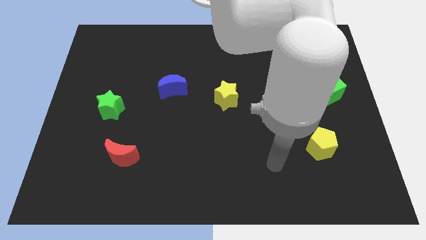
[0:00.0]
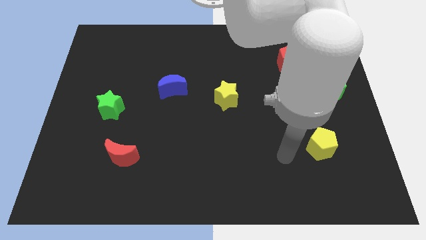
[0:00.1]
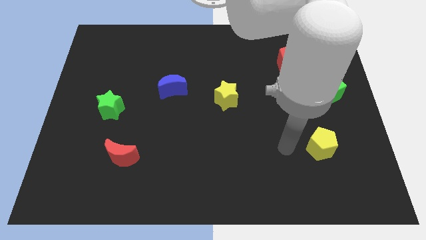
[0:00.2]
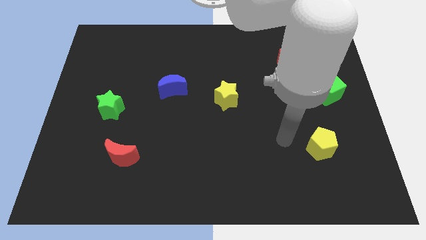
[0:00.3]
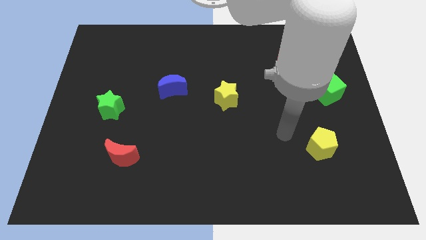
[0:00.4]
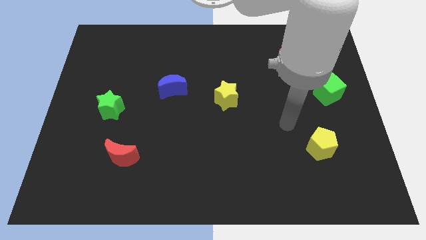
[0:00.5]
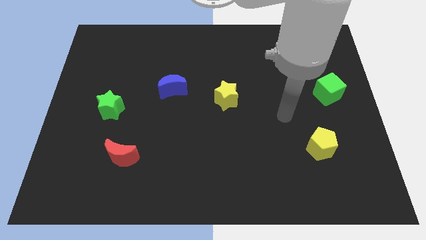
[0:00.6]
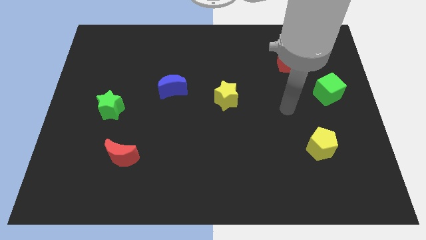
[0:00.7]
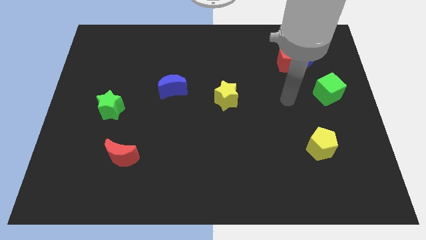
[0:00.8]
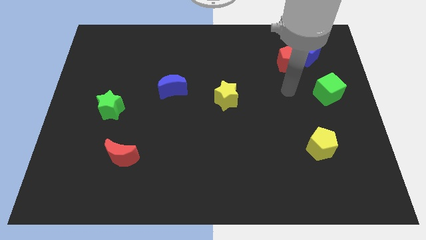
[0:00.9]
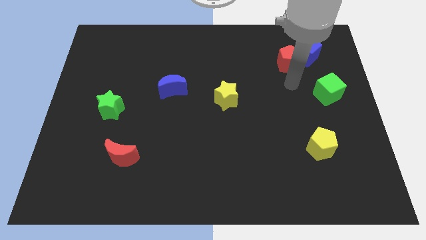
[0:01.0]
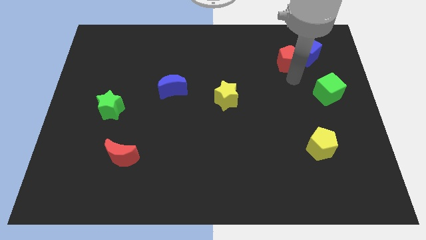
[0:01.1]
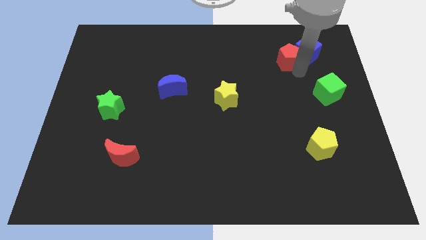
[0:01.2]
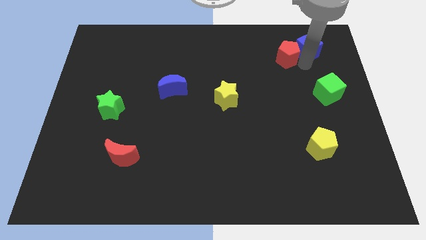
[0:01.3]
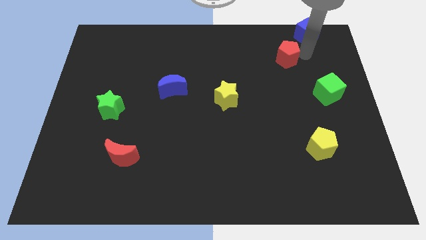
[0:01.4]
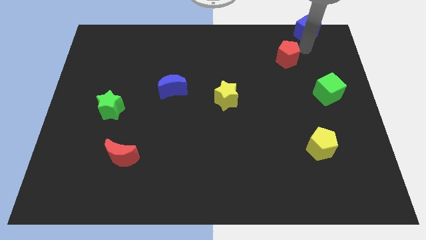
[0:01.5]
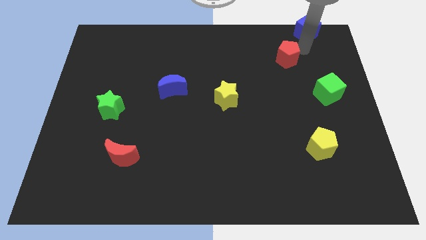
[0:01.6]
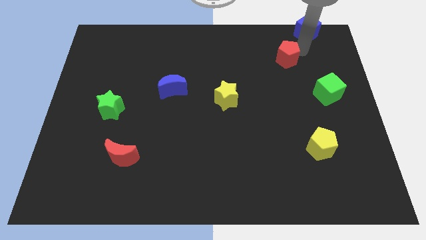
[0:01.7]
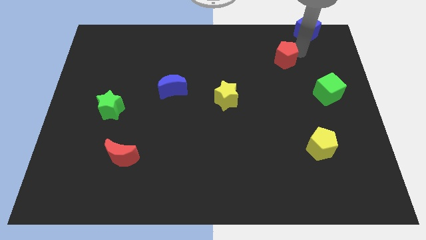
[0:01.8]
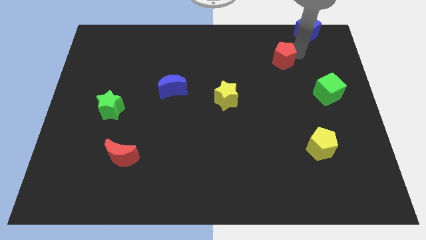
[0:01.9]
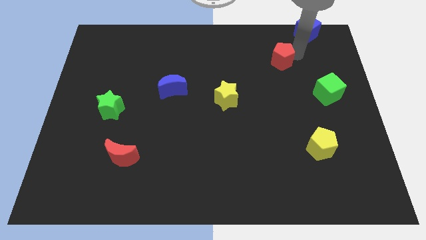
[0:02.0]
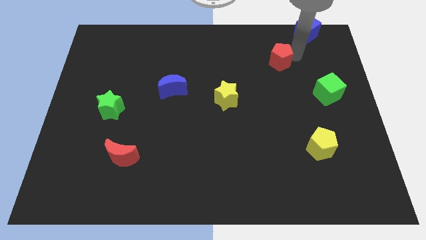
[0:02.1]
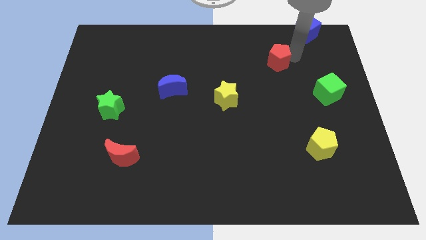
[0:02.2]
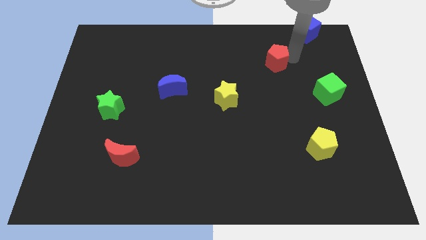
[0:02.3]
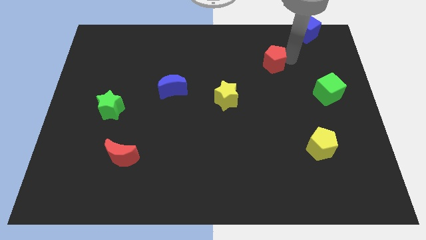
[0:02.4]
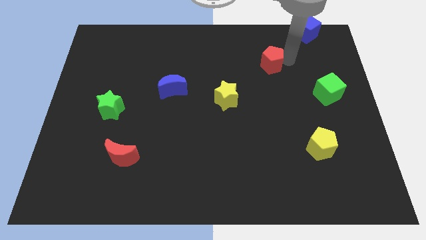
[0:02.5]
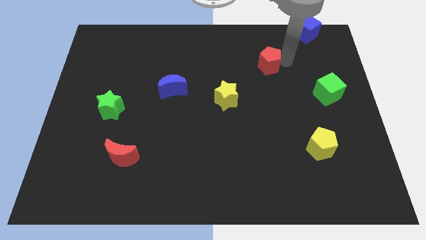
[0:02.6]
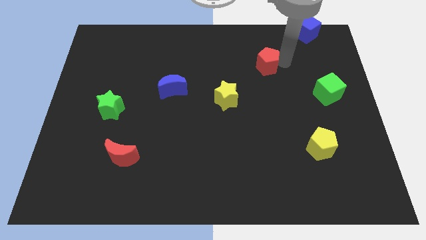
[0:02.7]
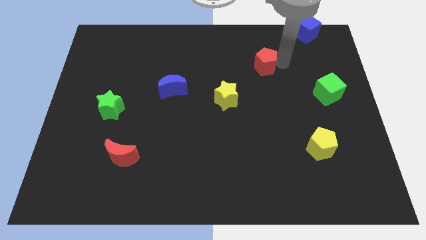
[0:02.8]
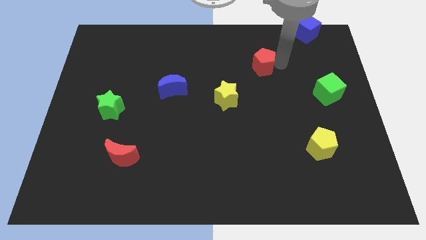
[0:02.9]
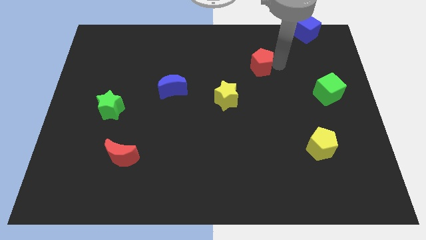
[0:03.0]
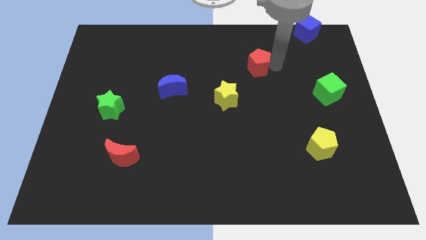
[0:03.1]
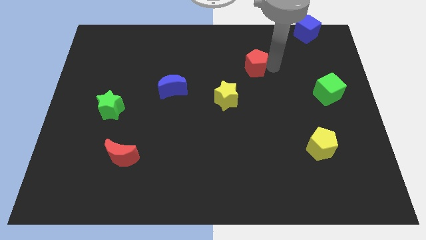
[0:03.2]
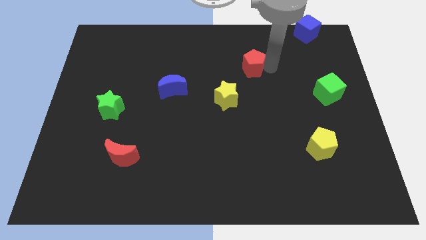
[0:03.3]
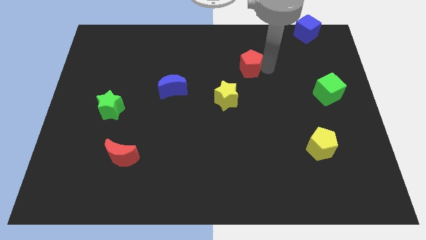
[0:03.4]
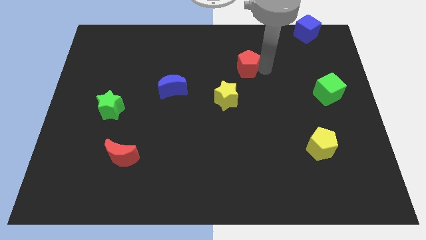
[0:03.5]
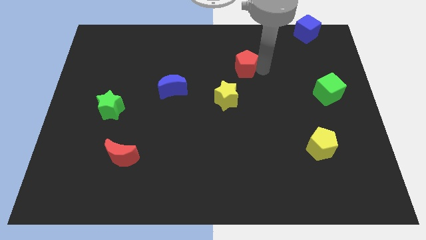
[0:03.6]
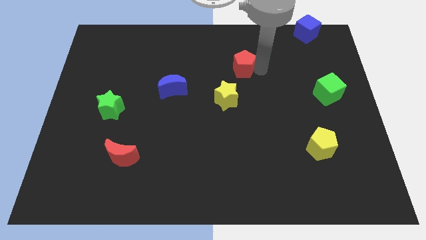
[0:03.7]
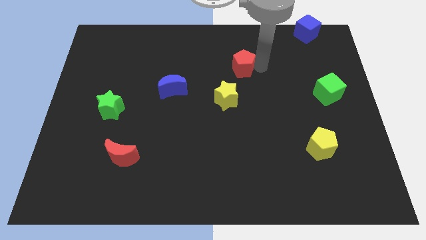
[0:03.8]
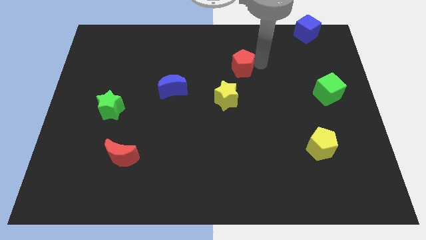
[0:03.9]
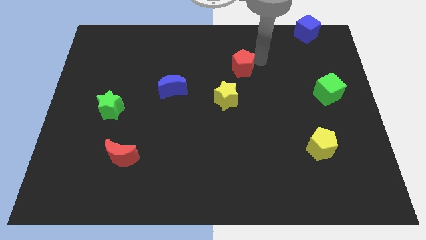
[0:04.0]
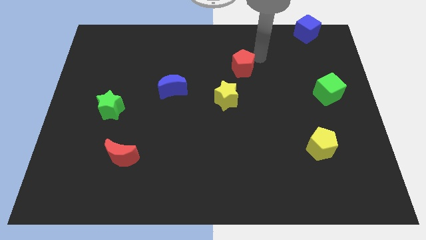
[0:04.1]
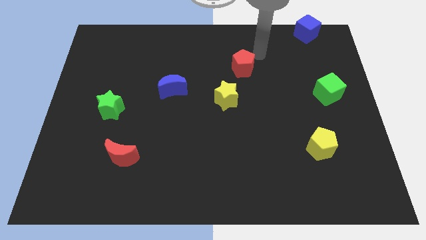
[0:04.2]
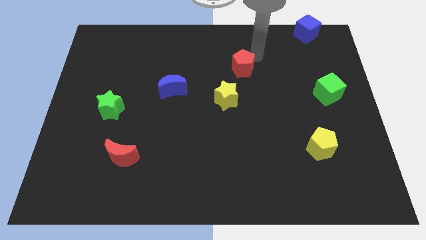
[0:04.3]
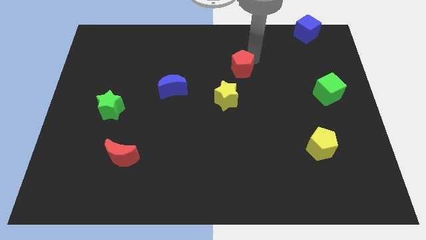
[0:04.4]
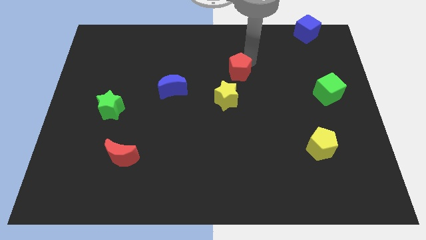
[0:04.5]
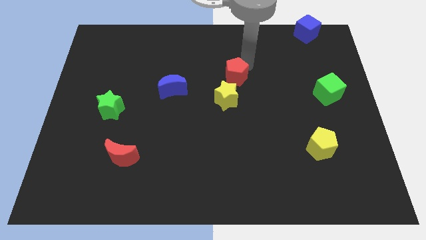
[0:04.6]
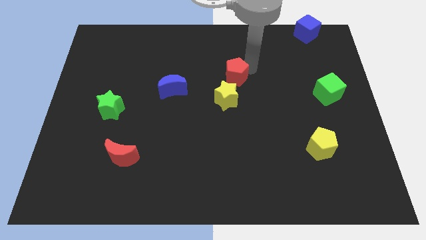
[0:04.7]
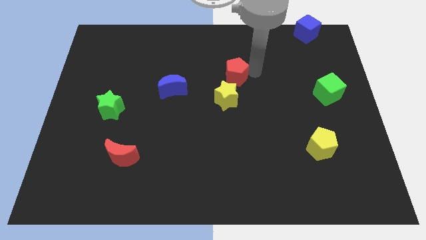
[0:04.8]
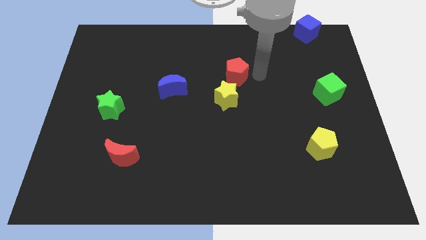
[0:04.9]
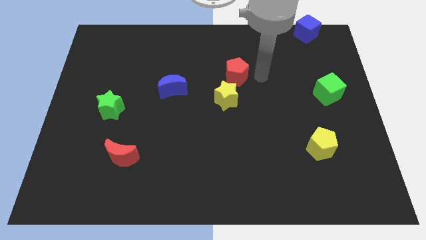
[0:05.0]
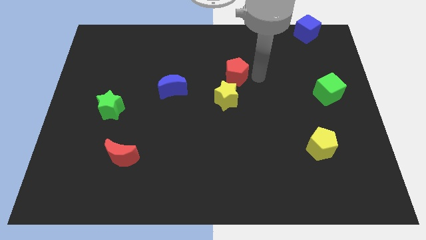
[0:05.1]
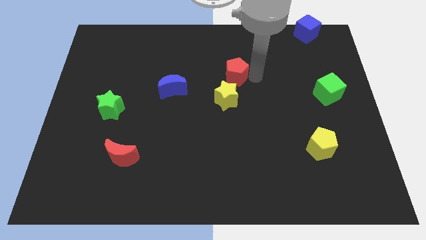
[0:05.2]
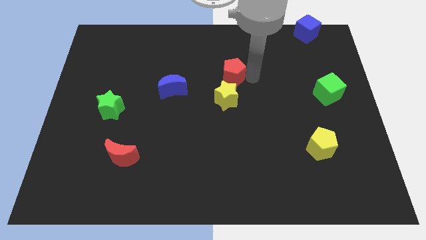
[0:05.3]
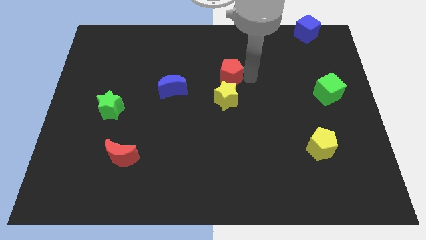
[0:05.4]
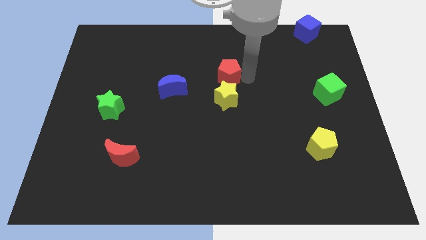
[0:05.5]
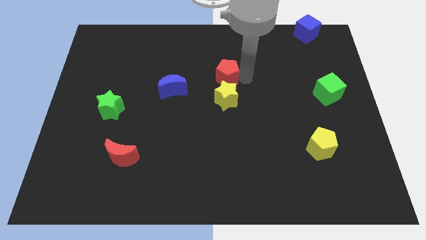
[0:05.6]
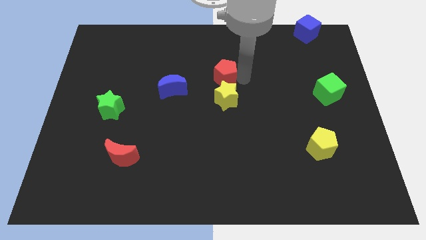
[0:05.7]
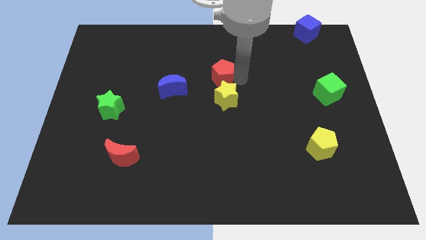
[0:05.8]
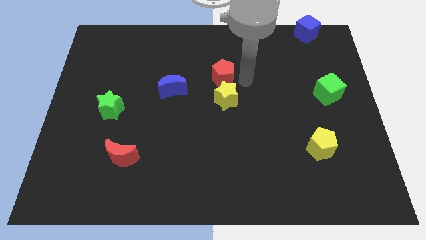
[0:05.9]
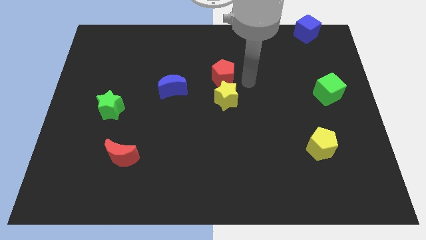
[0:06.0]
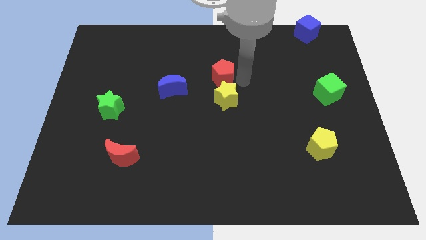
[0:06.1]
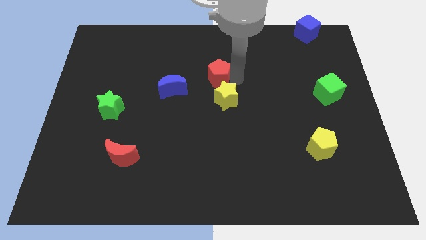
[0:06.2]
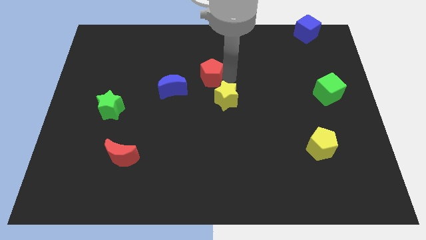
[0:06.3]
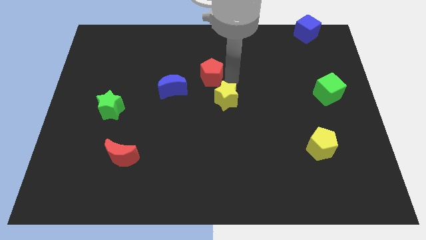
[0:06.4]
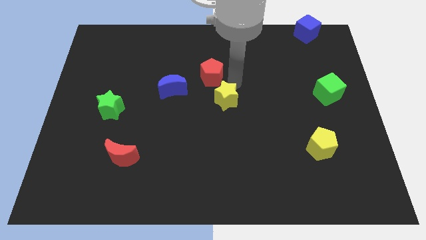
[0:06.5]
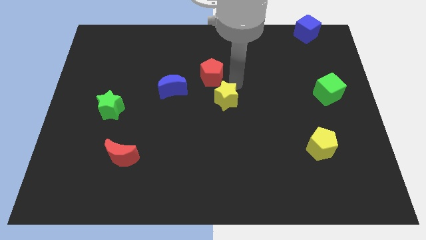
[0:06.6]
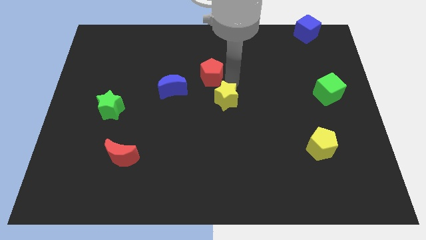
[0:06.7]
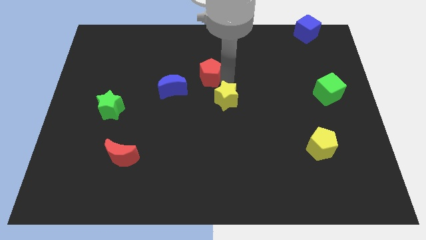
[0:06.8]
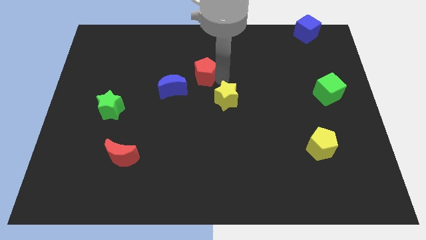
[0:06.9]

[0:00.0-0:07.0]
slide the red pentagon to the left

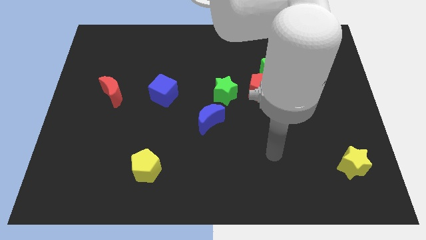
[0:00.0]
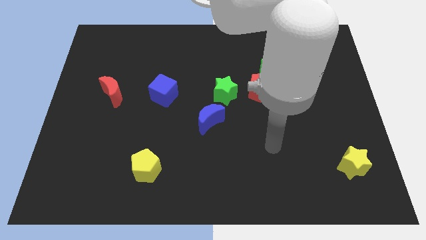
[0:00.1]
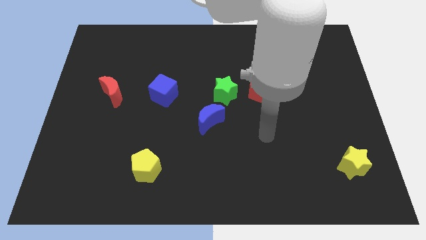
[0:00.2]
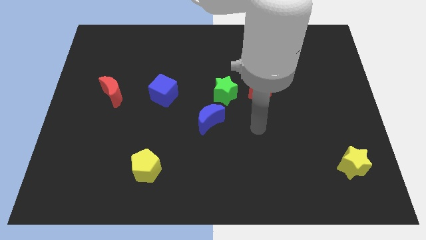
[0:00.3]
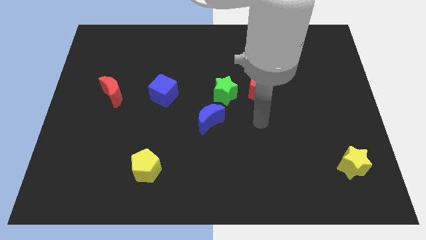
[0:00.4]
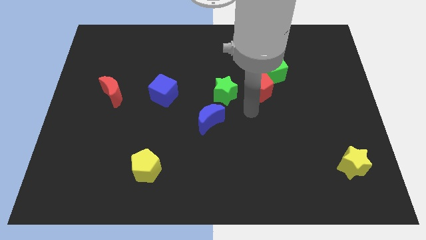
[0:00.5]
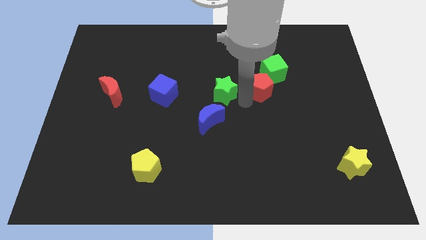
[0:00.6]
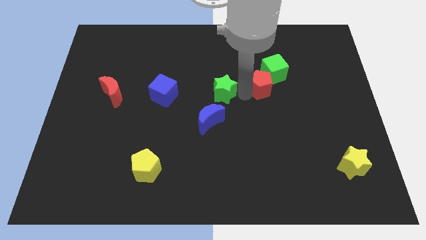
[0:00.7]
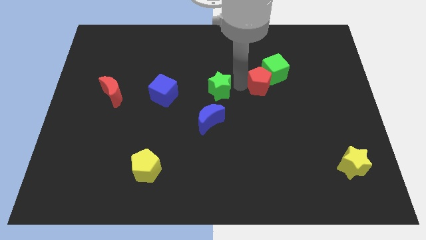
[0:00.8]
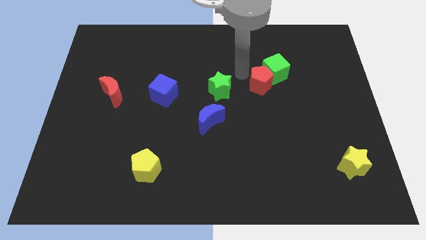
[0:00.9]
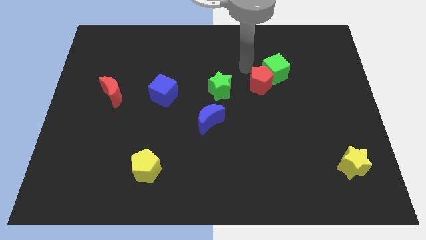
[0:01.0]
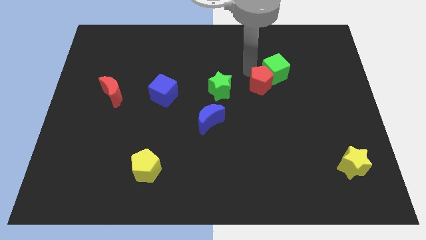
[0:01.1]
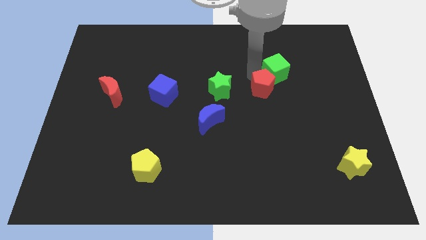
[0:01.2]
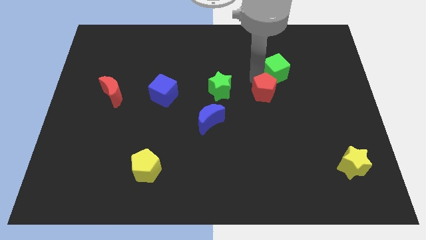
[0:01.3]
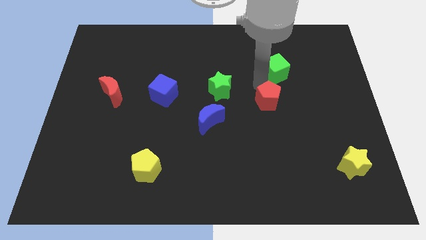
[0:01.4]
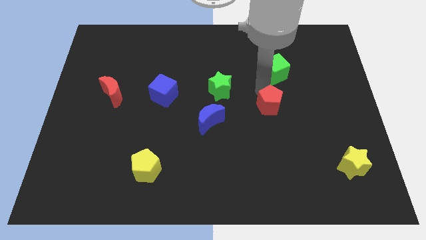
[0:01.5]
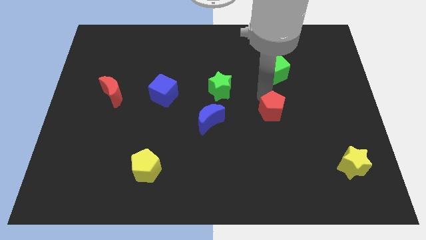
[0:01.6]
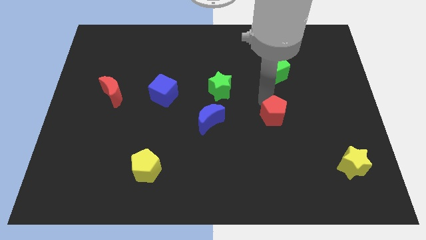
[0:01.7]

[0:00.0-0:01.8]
slightly move the red pentagon down and right
